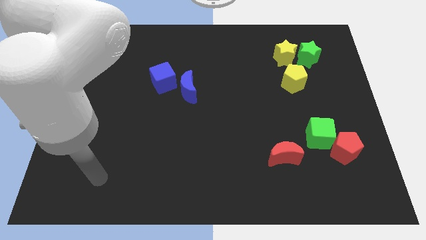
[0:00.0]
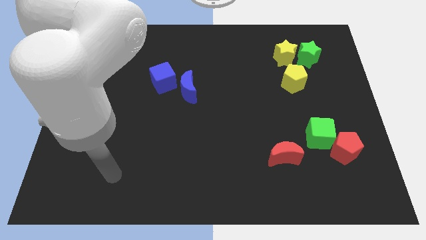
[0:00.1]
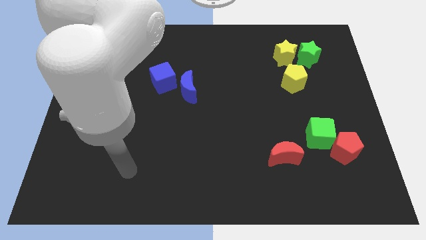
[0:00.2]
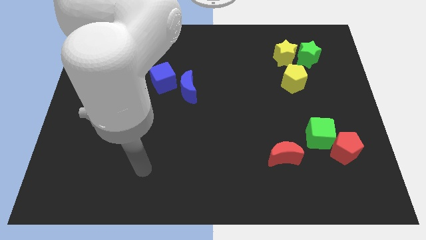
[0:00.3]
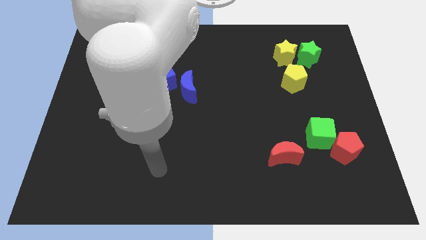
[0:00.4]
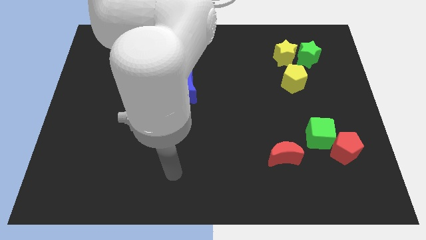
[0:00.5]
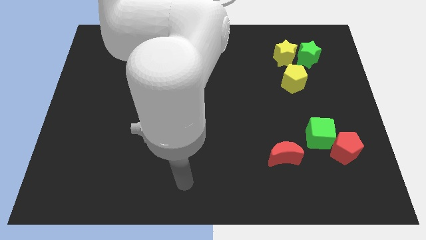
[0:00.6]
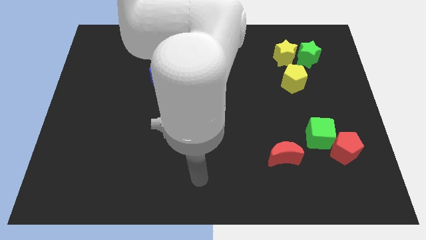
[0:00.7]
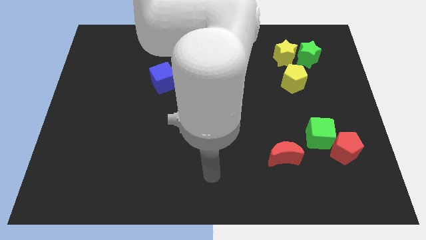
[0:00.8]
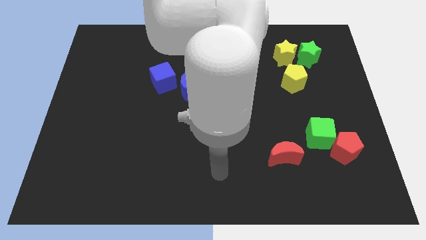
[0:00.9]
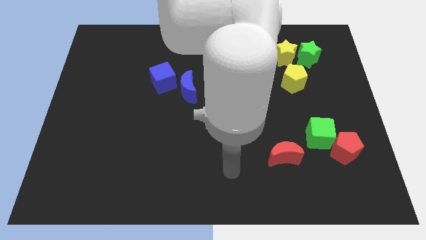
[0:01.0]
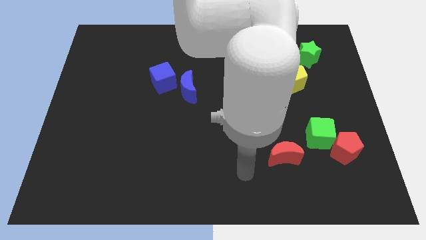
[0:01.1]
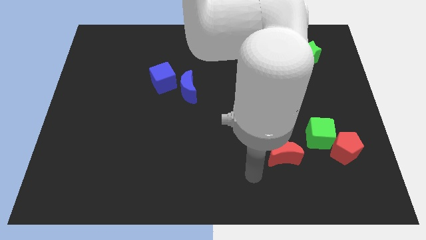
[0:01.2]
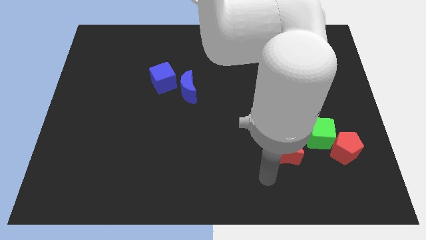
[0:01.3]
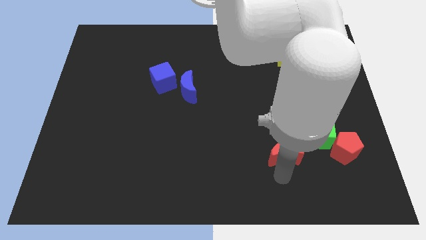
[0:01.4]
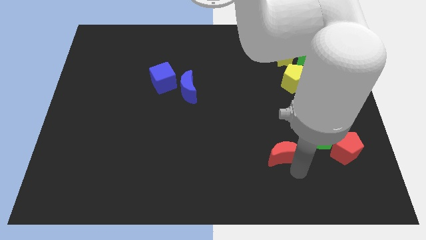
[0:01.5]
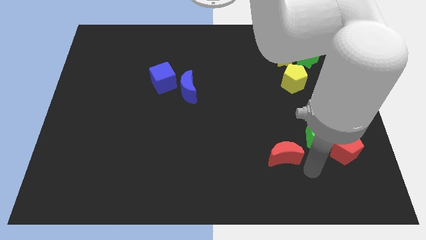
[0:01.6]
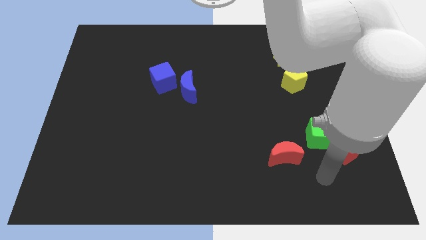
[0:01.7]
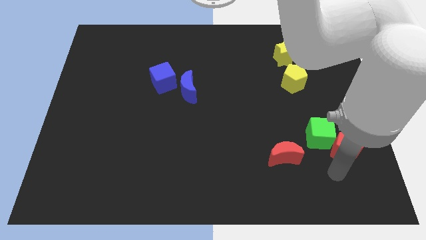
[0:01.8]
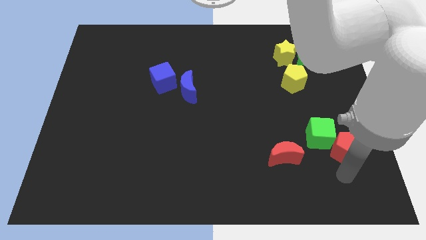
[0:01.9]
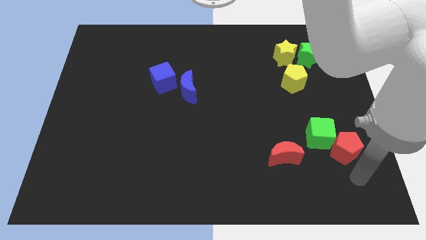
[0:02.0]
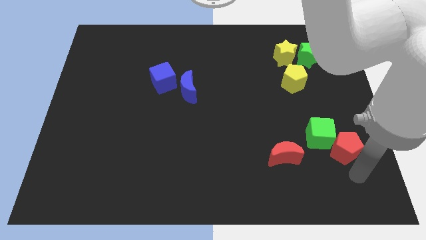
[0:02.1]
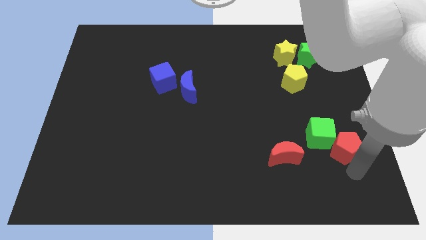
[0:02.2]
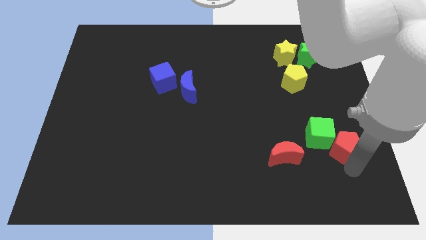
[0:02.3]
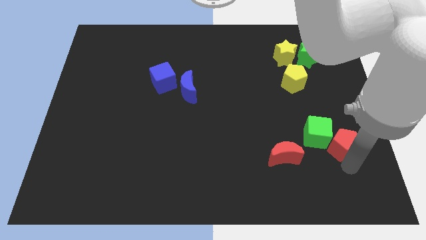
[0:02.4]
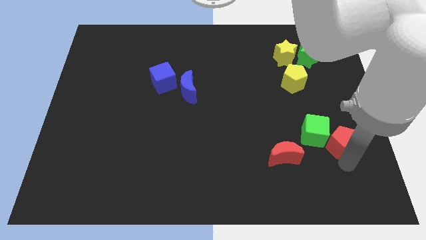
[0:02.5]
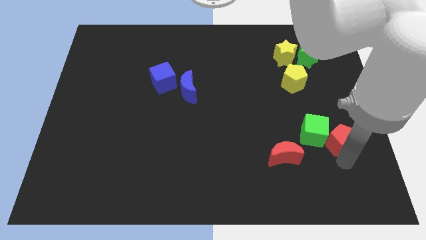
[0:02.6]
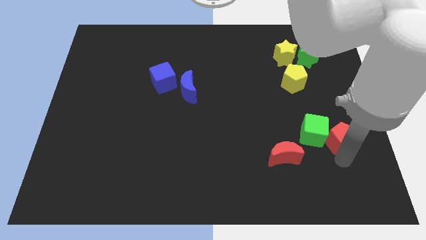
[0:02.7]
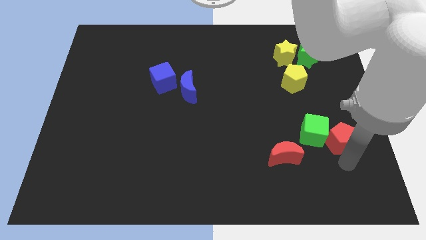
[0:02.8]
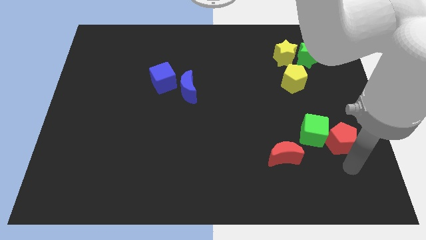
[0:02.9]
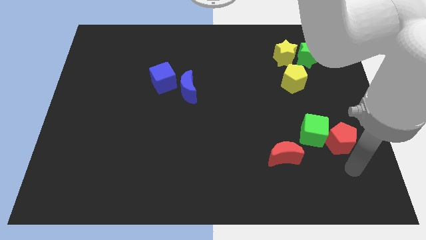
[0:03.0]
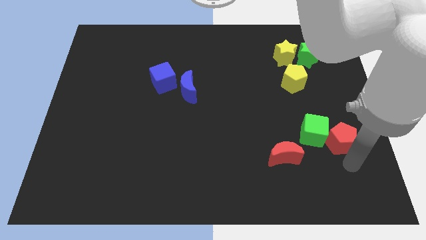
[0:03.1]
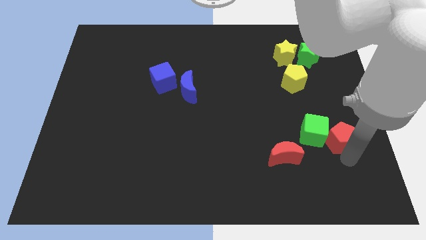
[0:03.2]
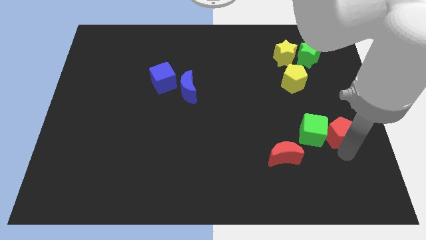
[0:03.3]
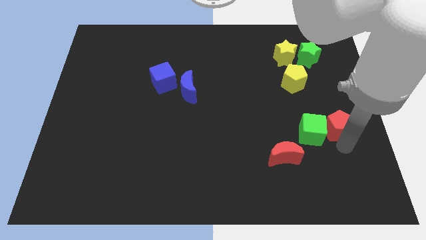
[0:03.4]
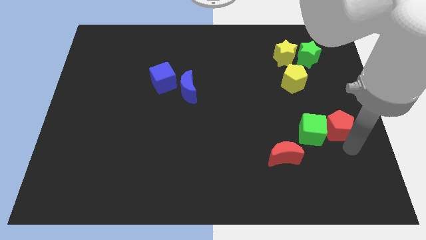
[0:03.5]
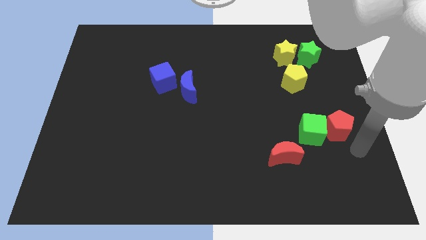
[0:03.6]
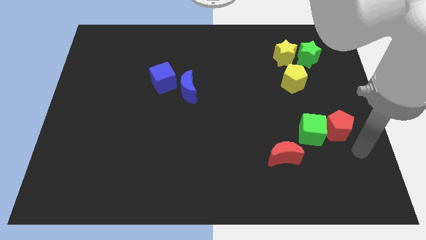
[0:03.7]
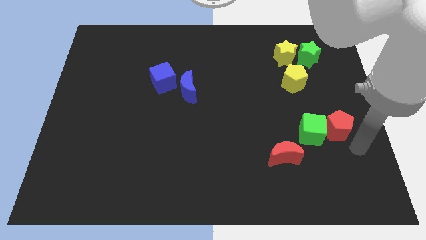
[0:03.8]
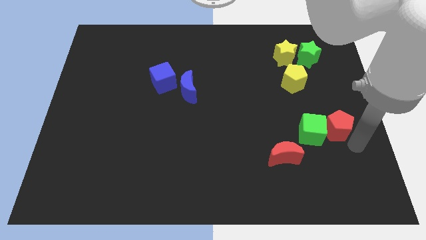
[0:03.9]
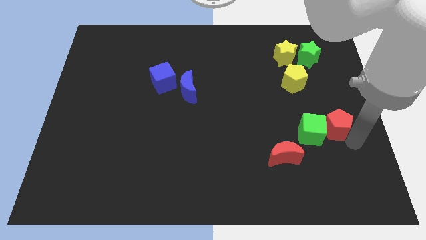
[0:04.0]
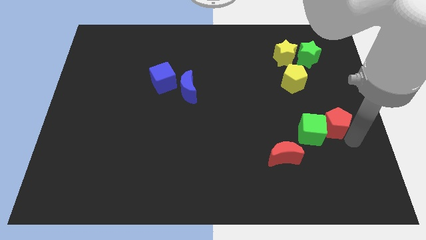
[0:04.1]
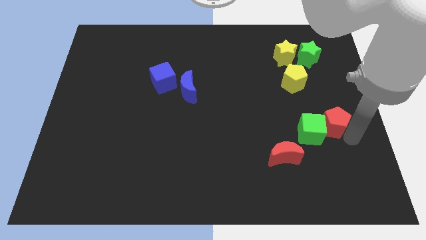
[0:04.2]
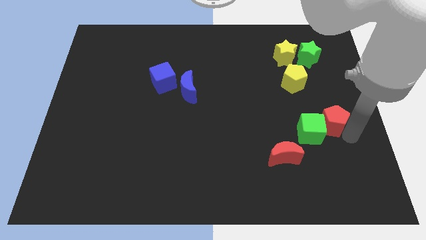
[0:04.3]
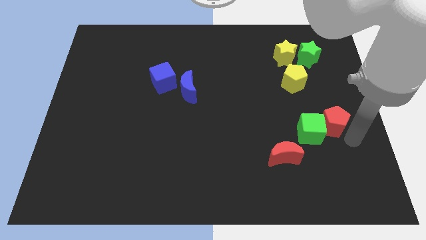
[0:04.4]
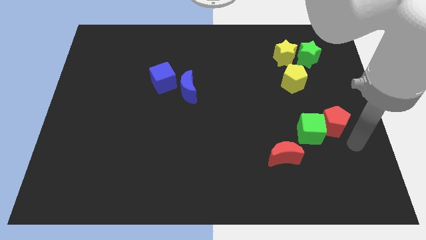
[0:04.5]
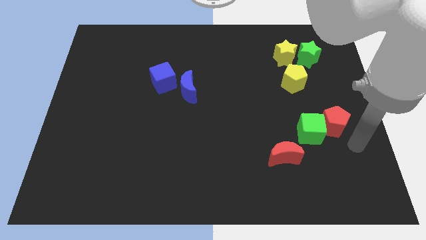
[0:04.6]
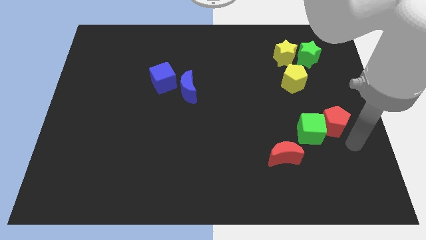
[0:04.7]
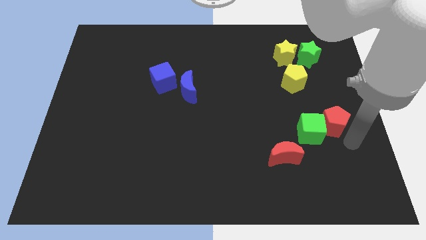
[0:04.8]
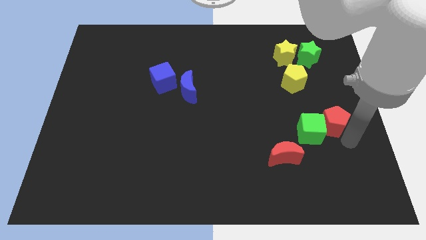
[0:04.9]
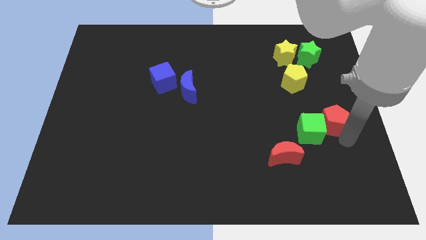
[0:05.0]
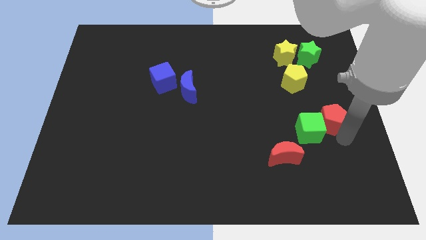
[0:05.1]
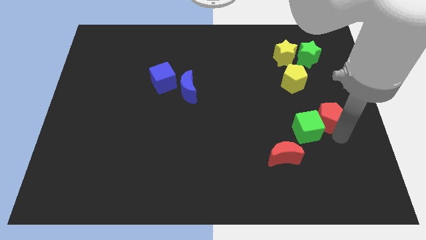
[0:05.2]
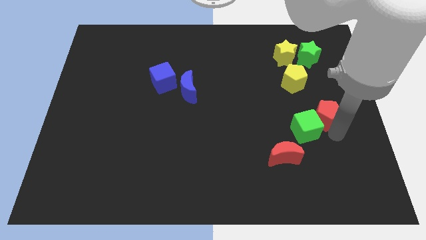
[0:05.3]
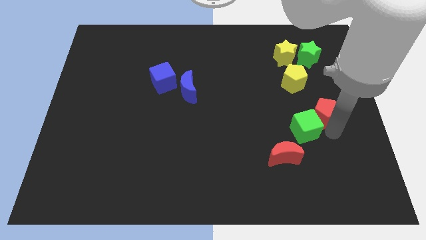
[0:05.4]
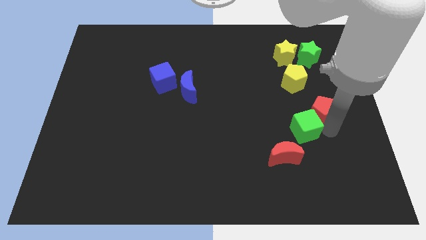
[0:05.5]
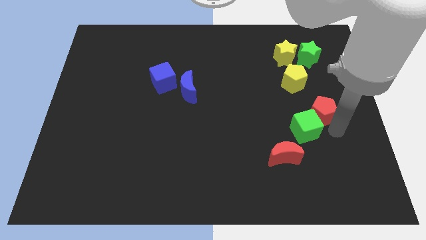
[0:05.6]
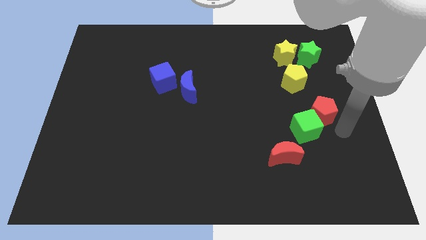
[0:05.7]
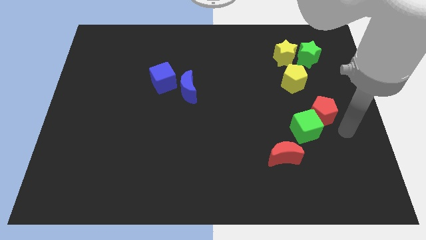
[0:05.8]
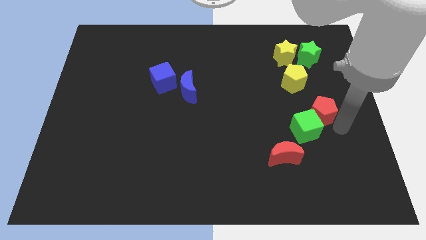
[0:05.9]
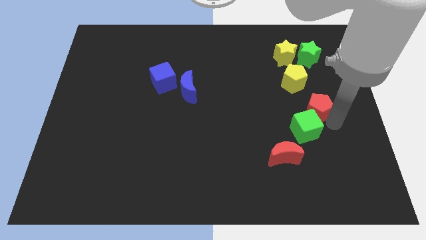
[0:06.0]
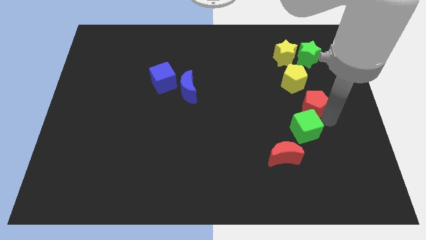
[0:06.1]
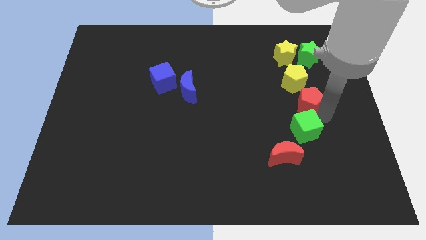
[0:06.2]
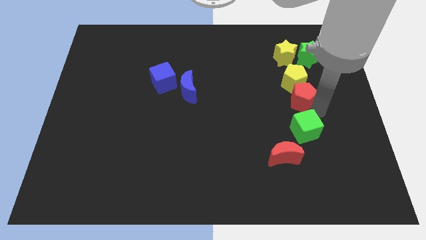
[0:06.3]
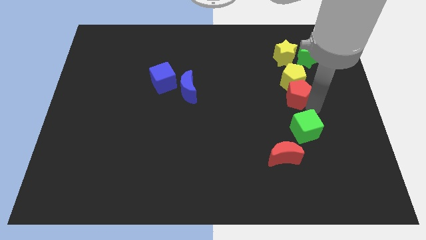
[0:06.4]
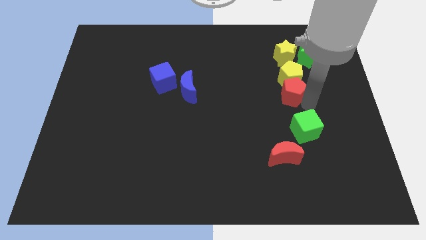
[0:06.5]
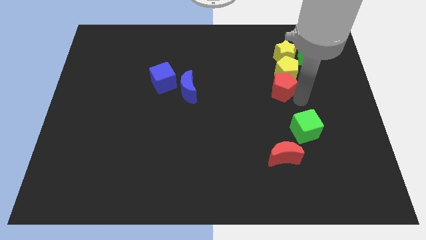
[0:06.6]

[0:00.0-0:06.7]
slide the red pentagon upwards and then to the left

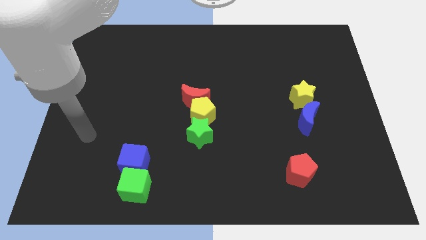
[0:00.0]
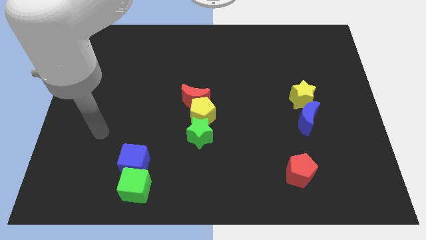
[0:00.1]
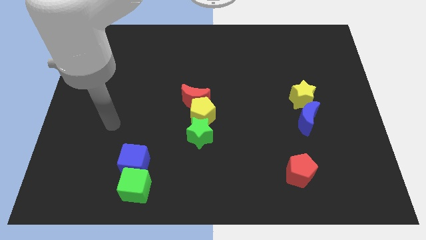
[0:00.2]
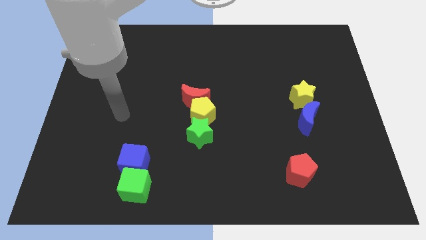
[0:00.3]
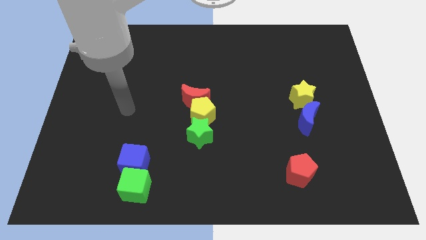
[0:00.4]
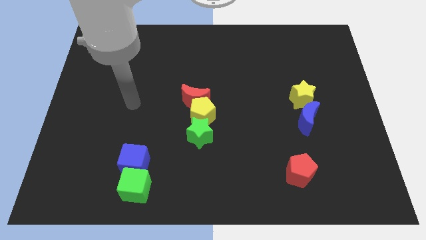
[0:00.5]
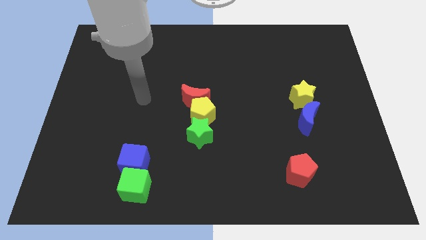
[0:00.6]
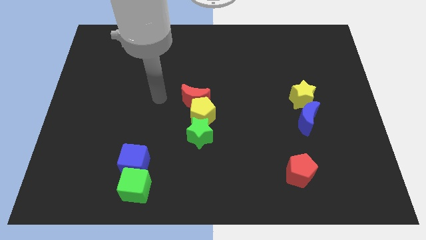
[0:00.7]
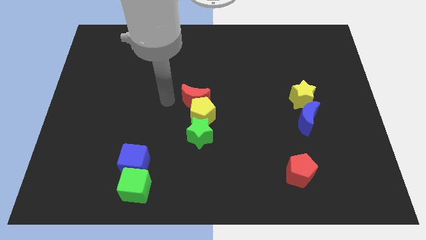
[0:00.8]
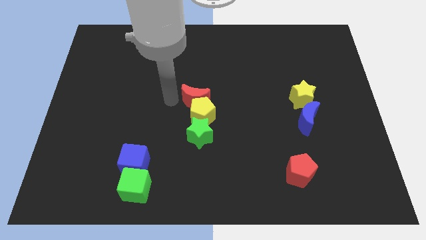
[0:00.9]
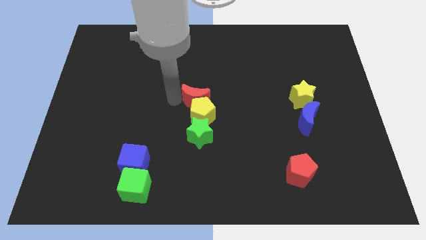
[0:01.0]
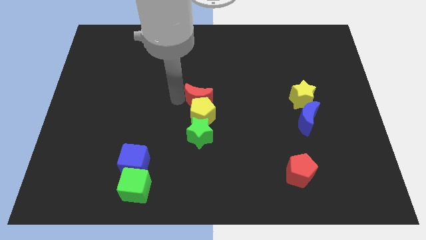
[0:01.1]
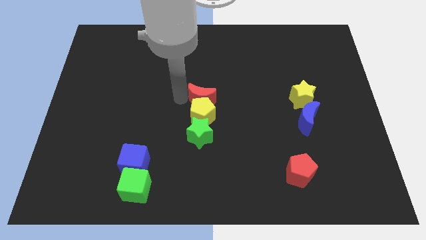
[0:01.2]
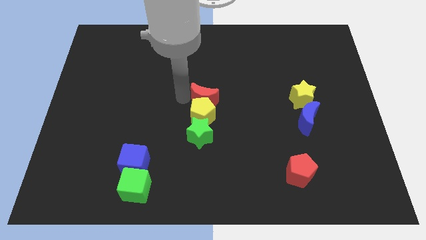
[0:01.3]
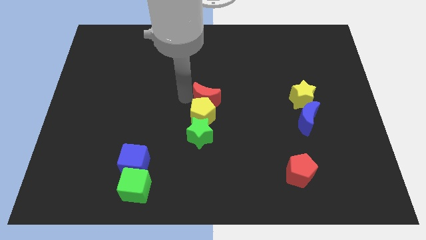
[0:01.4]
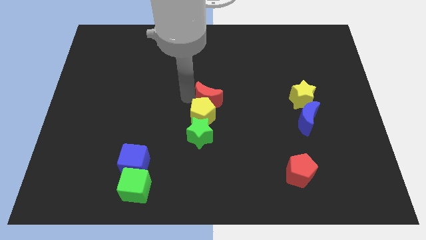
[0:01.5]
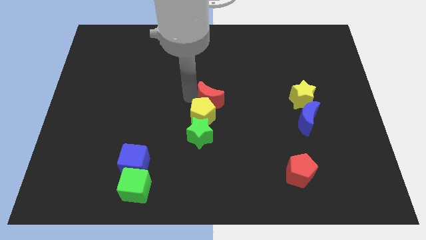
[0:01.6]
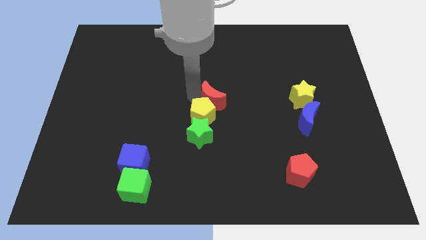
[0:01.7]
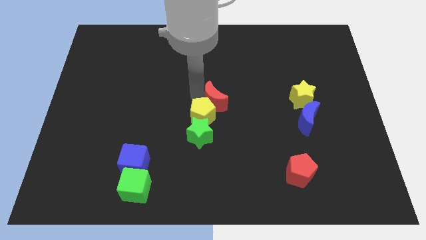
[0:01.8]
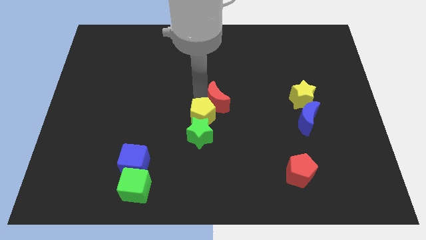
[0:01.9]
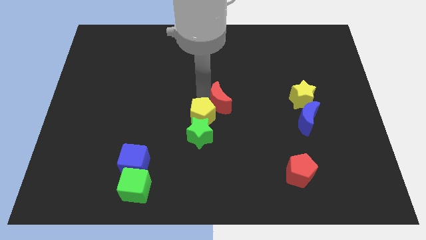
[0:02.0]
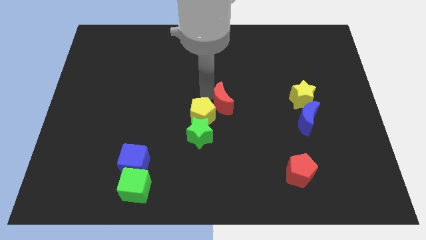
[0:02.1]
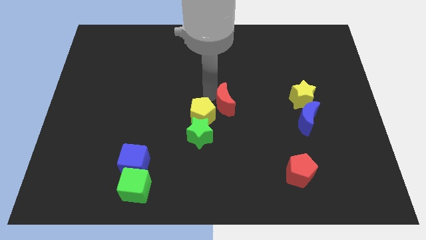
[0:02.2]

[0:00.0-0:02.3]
move the red moon right somewhat
